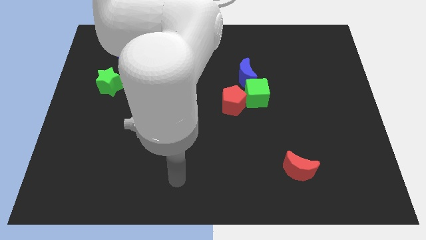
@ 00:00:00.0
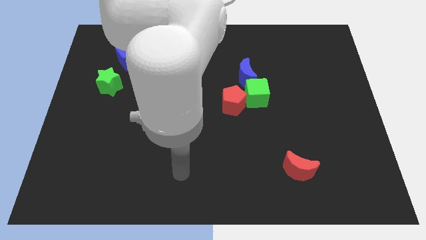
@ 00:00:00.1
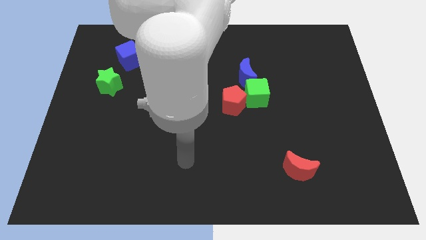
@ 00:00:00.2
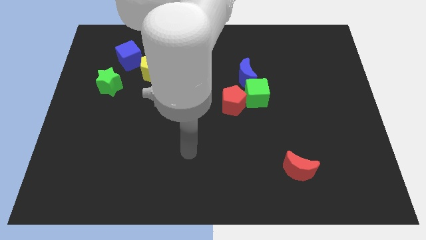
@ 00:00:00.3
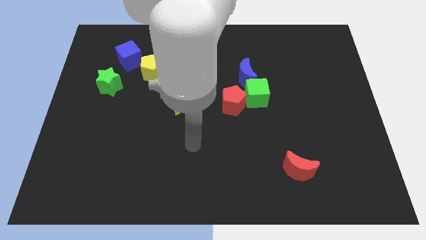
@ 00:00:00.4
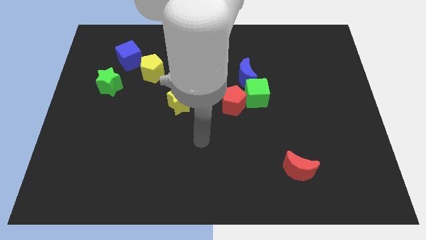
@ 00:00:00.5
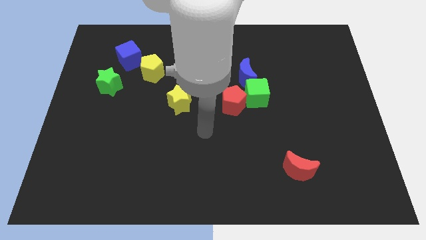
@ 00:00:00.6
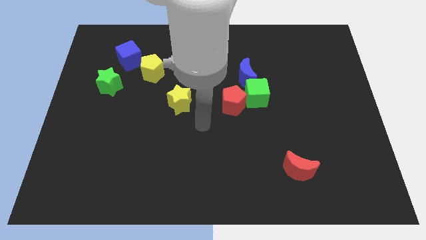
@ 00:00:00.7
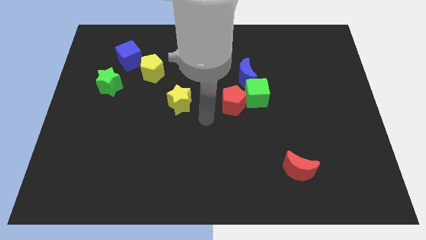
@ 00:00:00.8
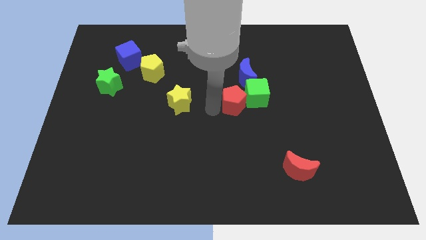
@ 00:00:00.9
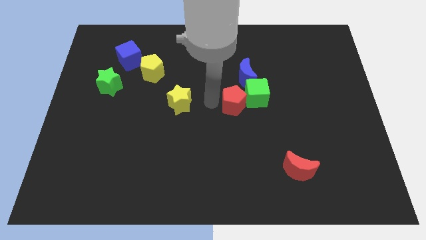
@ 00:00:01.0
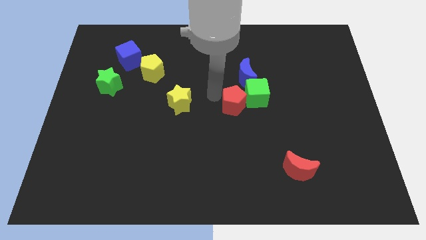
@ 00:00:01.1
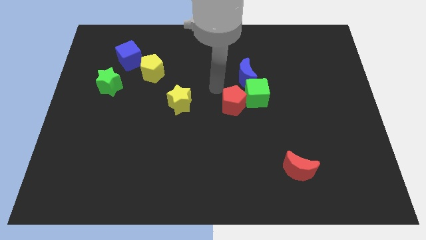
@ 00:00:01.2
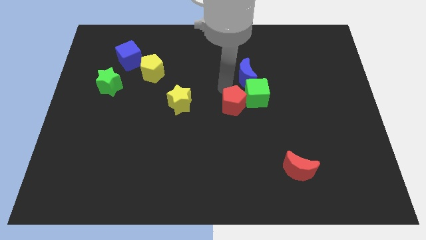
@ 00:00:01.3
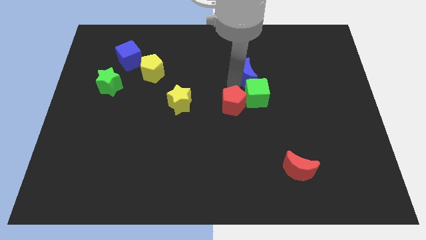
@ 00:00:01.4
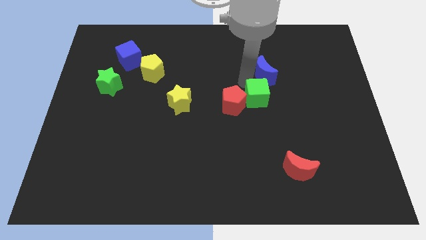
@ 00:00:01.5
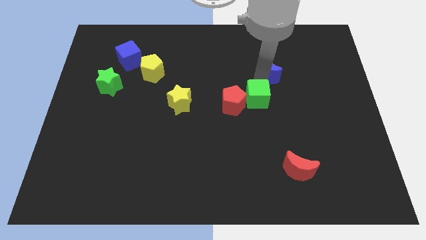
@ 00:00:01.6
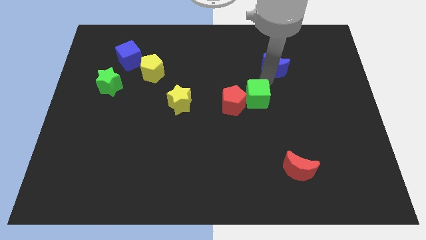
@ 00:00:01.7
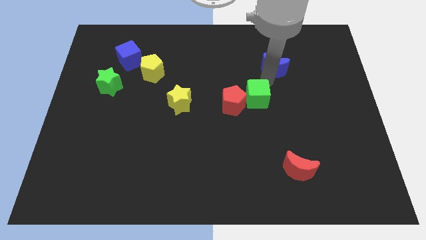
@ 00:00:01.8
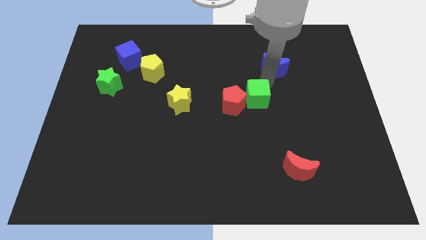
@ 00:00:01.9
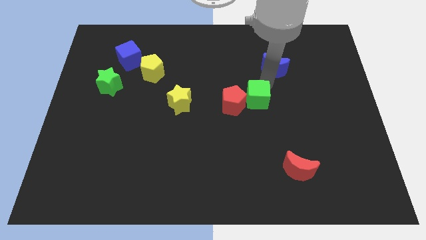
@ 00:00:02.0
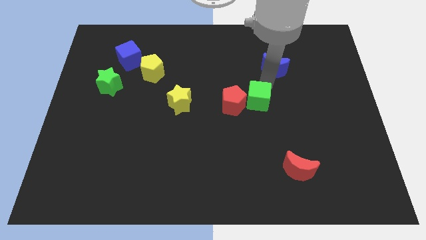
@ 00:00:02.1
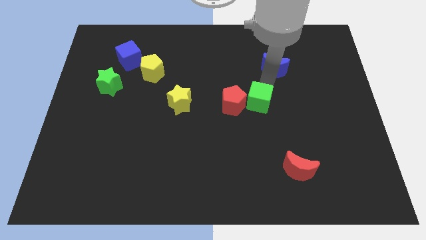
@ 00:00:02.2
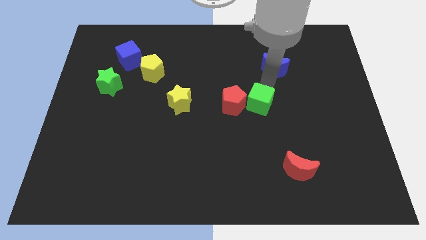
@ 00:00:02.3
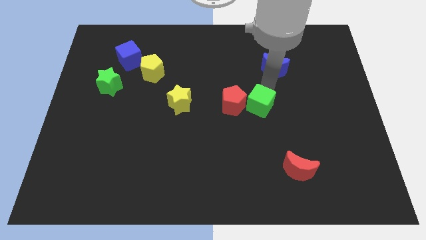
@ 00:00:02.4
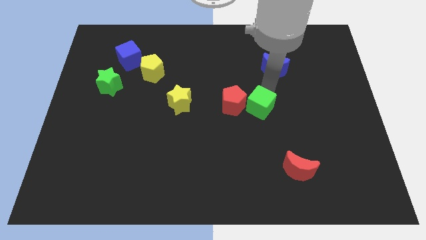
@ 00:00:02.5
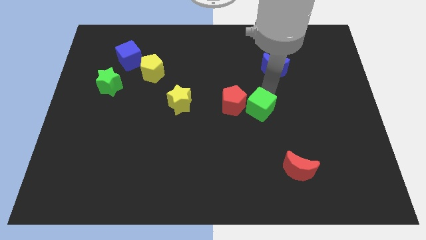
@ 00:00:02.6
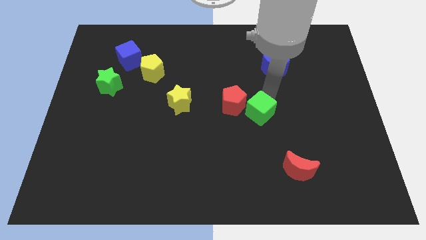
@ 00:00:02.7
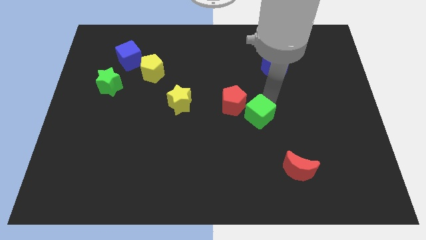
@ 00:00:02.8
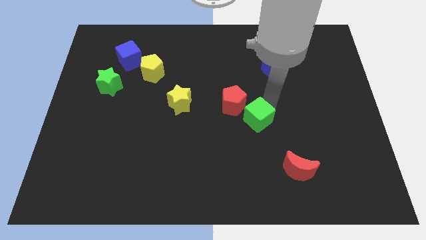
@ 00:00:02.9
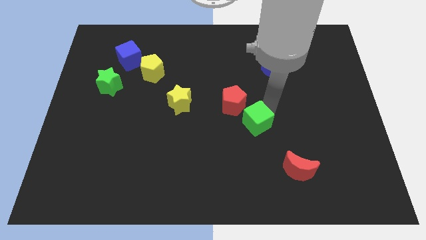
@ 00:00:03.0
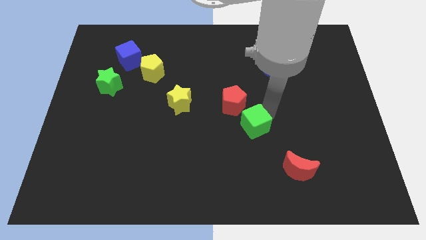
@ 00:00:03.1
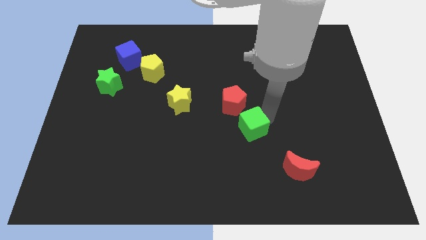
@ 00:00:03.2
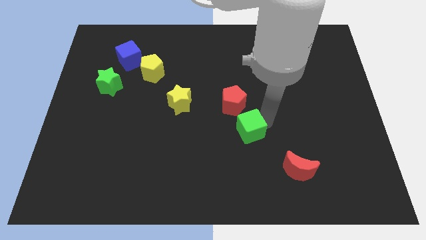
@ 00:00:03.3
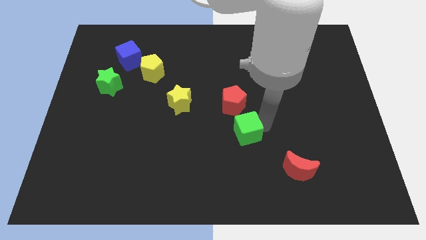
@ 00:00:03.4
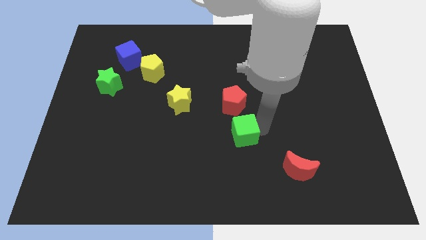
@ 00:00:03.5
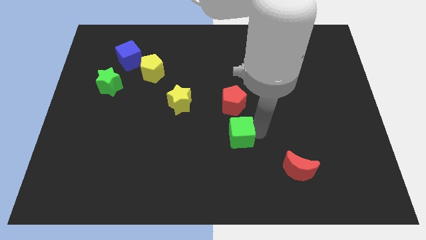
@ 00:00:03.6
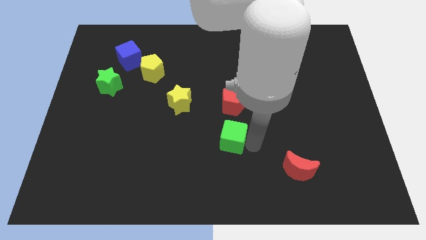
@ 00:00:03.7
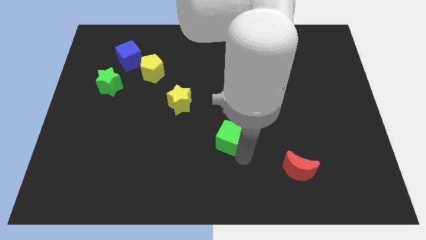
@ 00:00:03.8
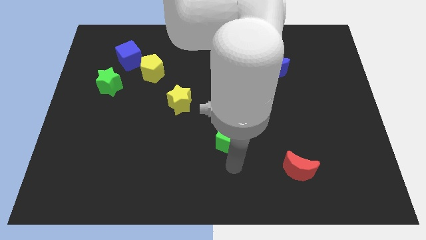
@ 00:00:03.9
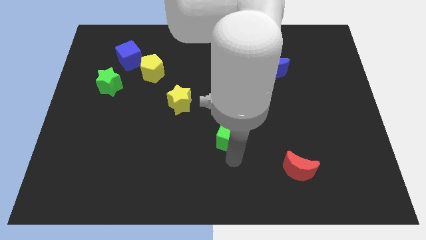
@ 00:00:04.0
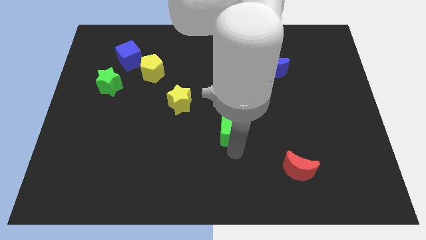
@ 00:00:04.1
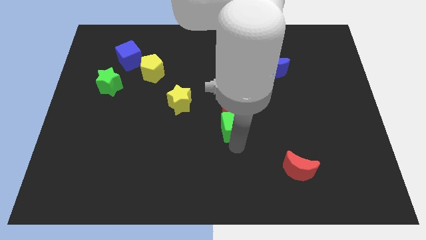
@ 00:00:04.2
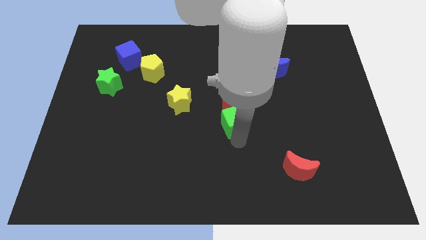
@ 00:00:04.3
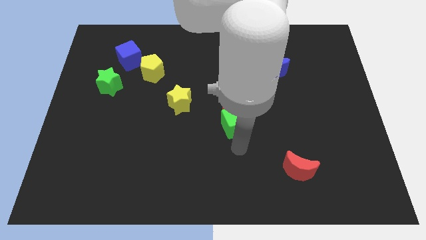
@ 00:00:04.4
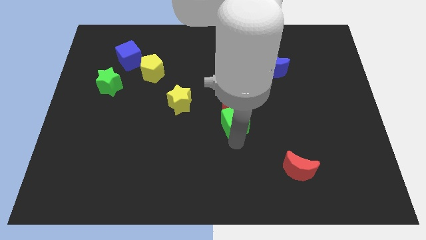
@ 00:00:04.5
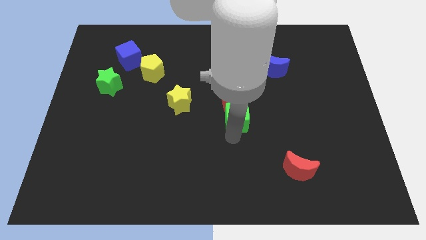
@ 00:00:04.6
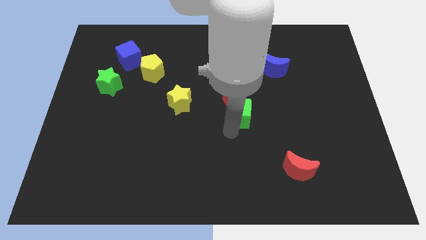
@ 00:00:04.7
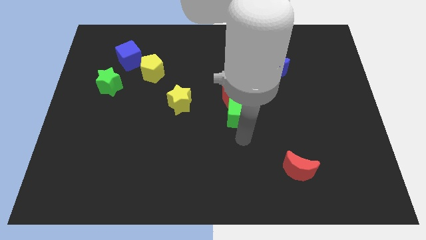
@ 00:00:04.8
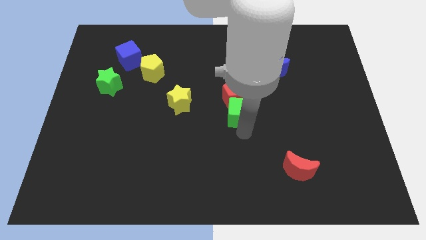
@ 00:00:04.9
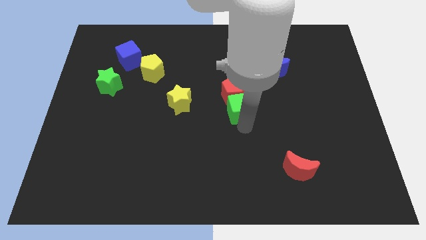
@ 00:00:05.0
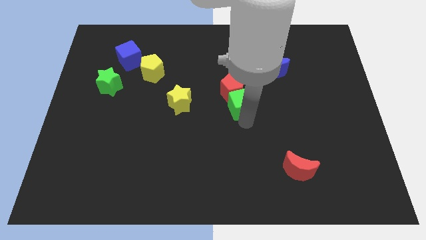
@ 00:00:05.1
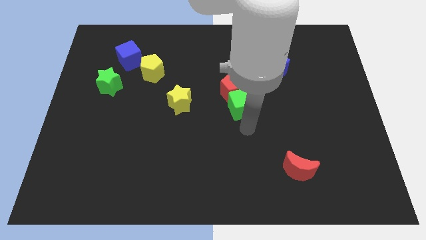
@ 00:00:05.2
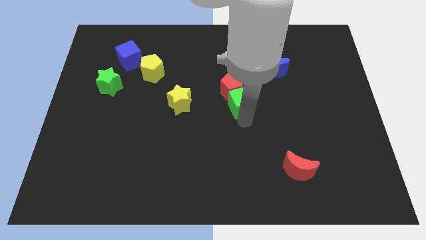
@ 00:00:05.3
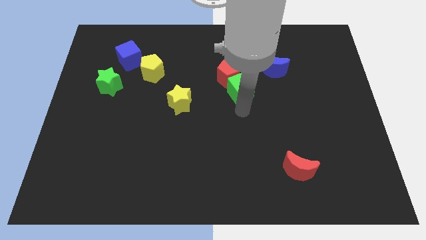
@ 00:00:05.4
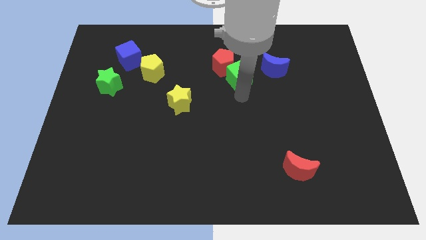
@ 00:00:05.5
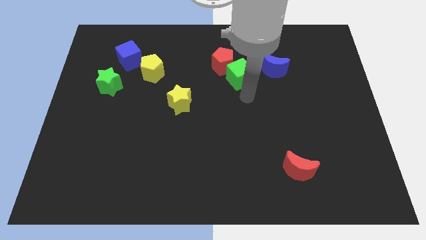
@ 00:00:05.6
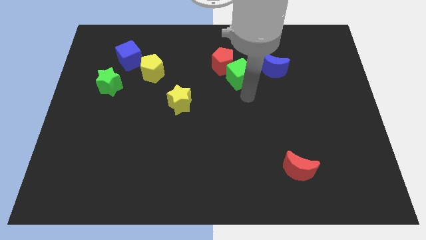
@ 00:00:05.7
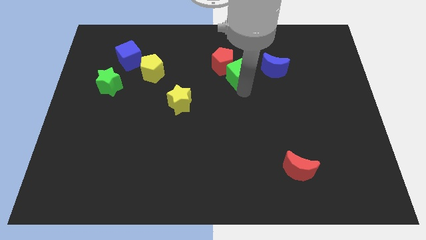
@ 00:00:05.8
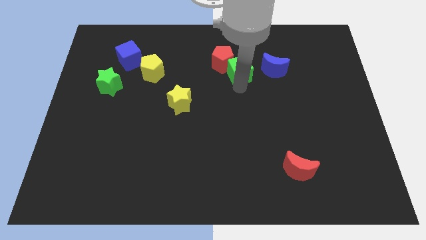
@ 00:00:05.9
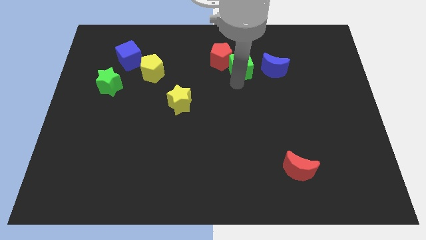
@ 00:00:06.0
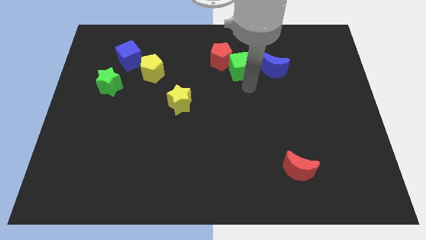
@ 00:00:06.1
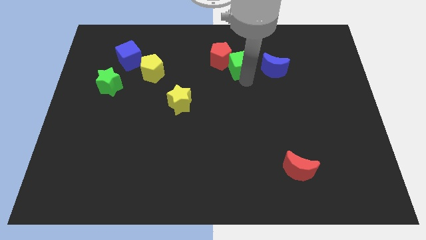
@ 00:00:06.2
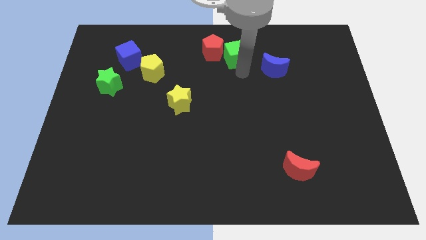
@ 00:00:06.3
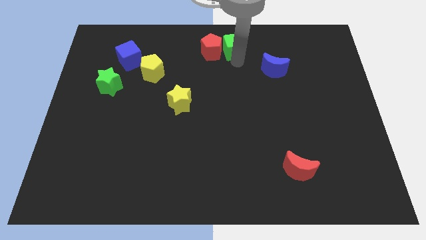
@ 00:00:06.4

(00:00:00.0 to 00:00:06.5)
move the green cube to the towards your base

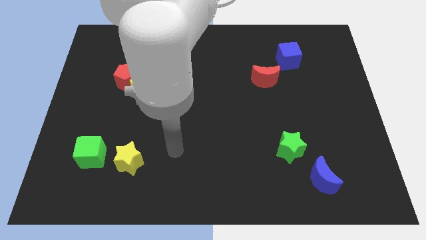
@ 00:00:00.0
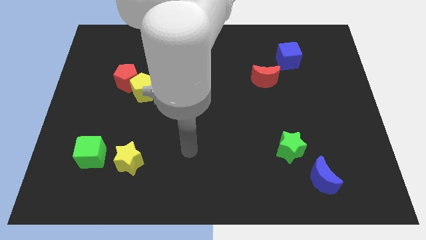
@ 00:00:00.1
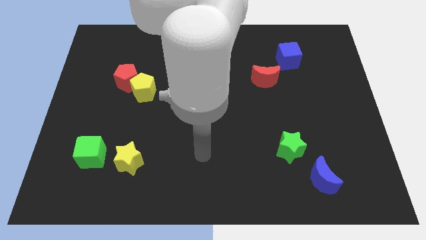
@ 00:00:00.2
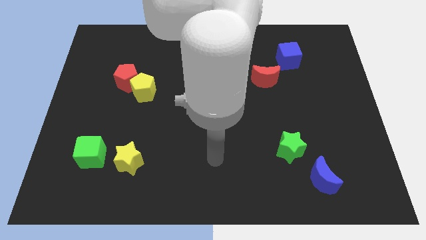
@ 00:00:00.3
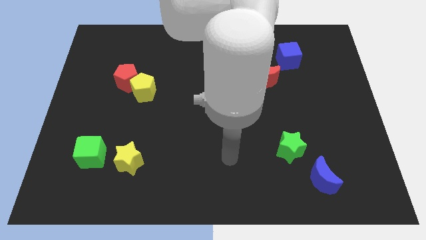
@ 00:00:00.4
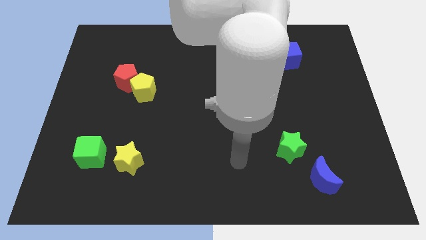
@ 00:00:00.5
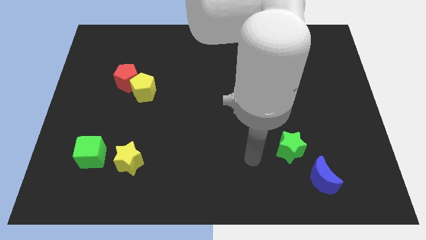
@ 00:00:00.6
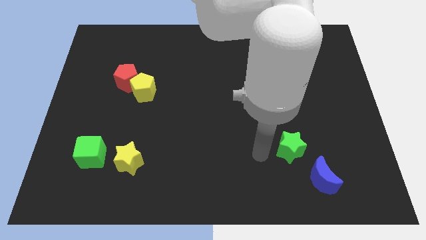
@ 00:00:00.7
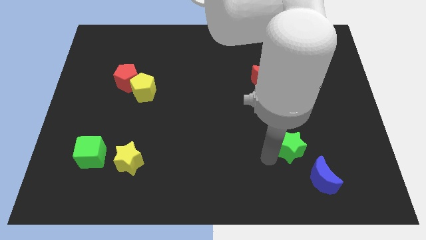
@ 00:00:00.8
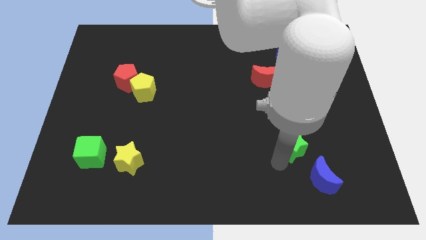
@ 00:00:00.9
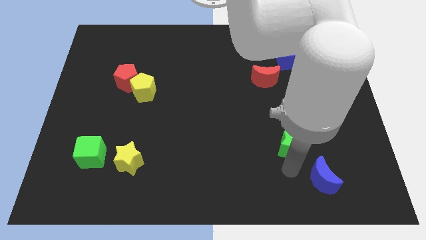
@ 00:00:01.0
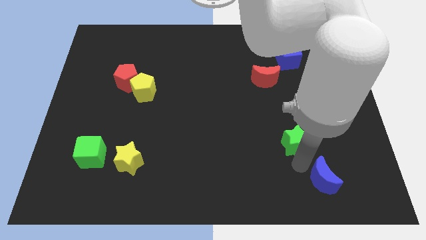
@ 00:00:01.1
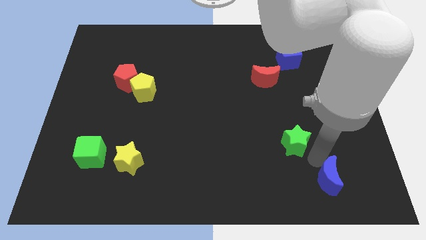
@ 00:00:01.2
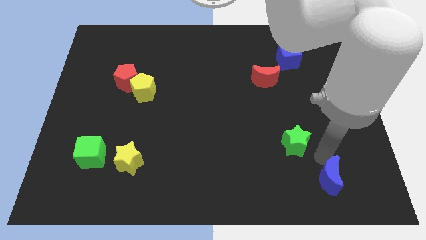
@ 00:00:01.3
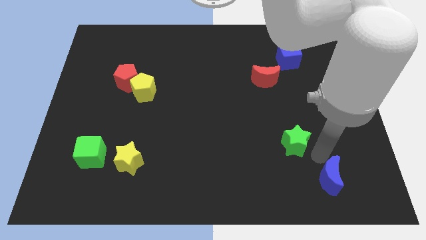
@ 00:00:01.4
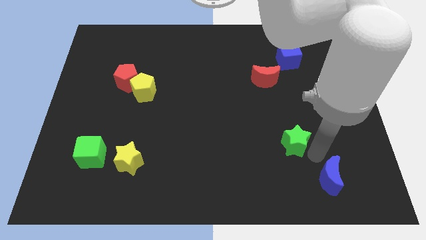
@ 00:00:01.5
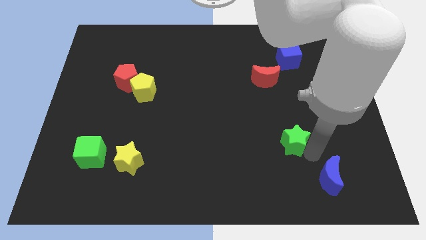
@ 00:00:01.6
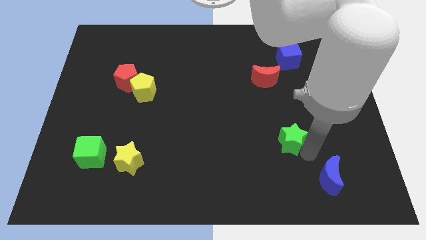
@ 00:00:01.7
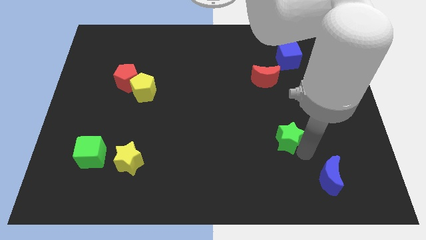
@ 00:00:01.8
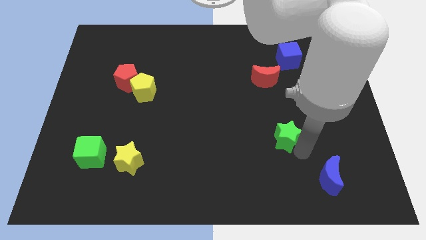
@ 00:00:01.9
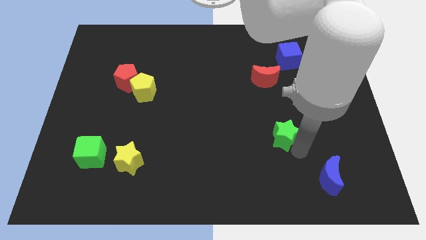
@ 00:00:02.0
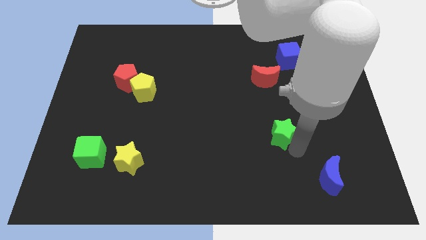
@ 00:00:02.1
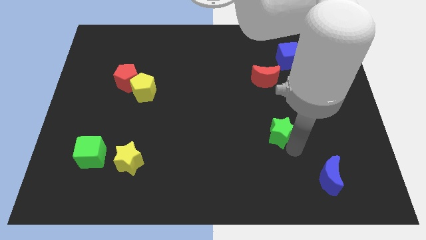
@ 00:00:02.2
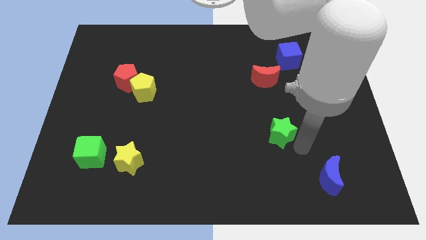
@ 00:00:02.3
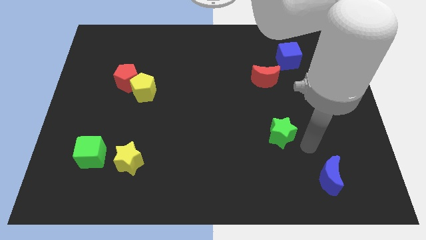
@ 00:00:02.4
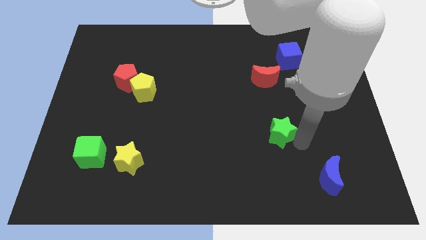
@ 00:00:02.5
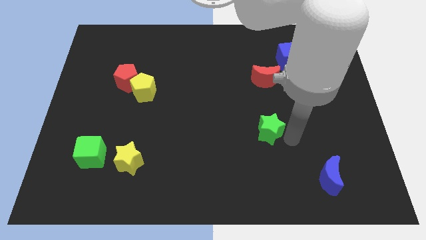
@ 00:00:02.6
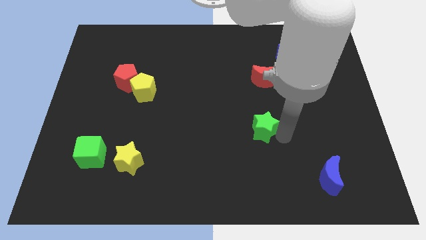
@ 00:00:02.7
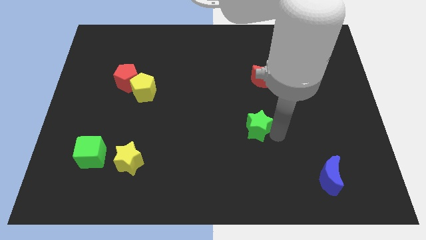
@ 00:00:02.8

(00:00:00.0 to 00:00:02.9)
move the green star to the center
